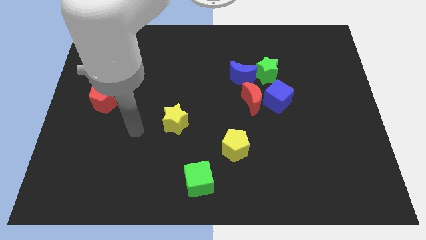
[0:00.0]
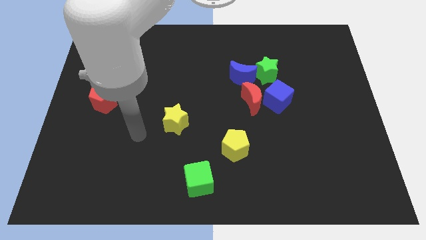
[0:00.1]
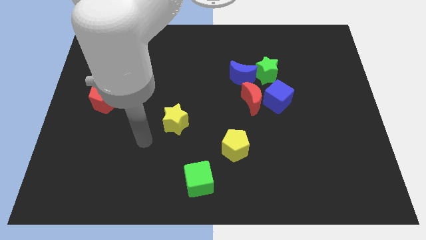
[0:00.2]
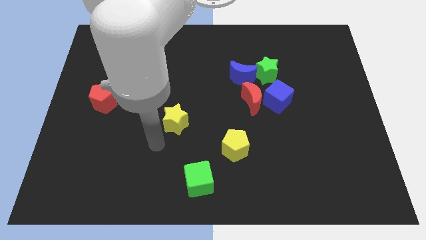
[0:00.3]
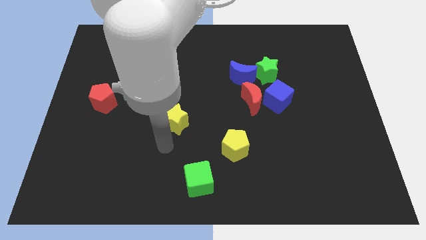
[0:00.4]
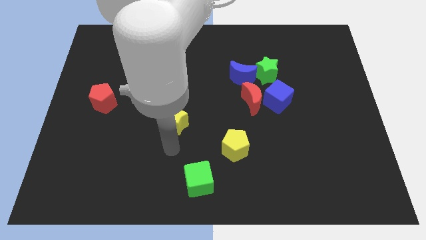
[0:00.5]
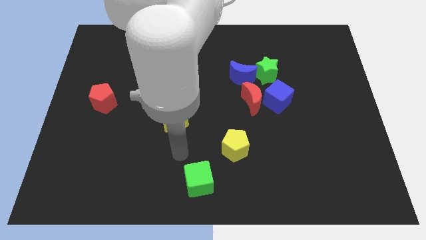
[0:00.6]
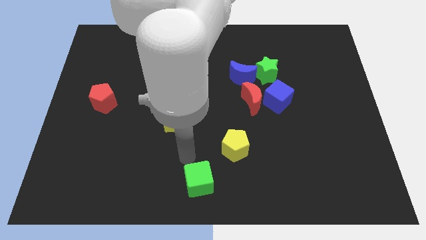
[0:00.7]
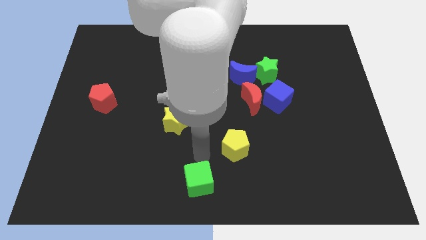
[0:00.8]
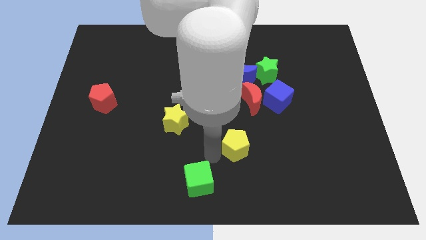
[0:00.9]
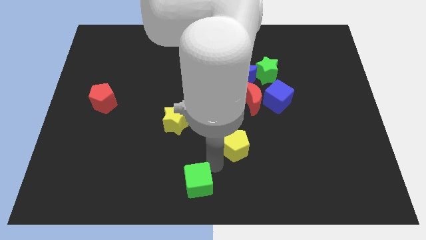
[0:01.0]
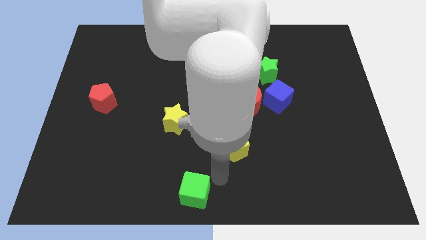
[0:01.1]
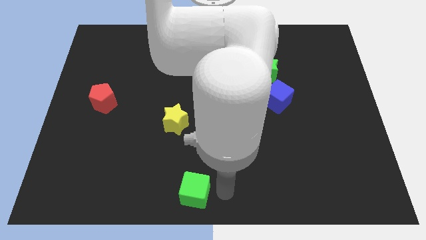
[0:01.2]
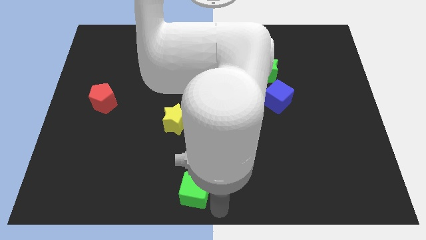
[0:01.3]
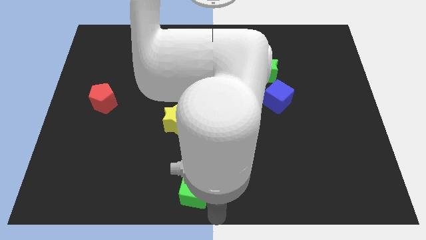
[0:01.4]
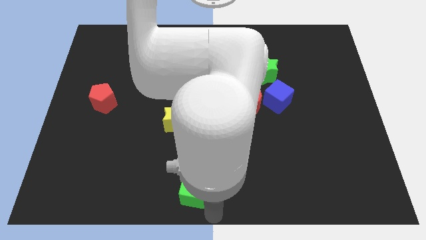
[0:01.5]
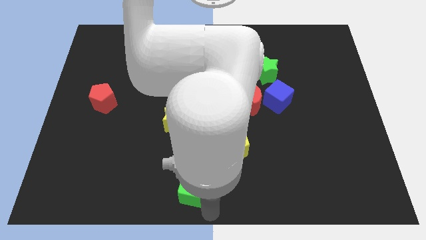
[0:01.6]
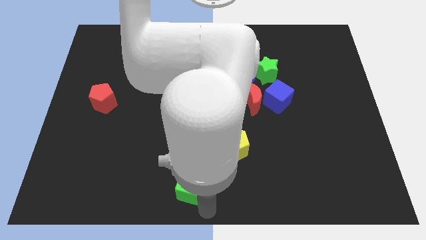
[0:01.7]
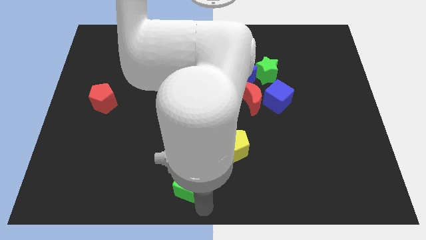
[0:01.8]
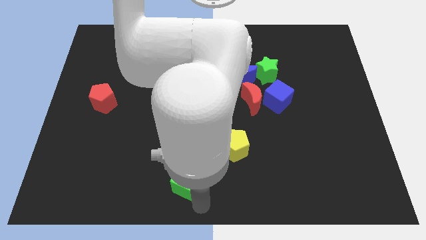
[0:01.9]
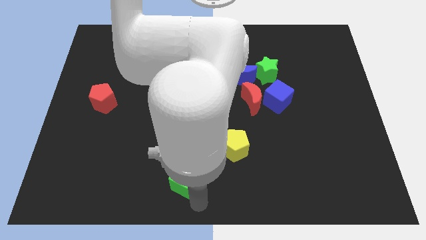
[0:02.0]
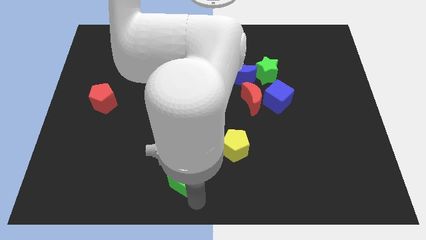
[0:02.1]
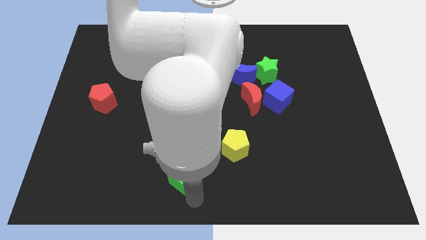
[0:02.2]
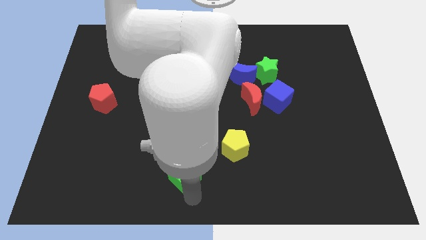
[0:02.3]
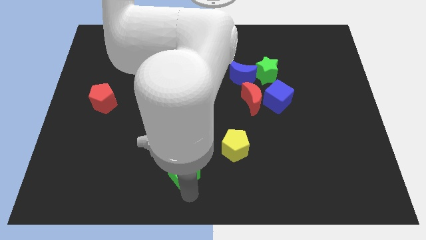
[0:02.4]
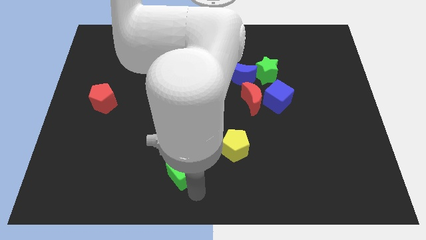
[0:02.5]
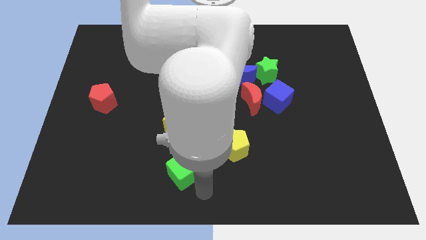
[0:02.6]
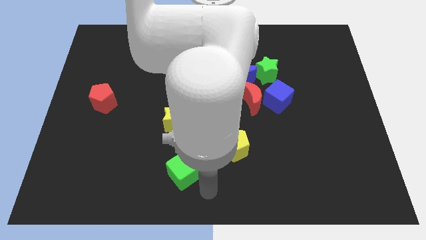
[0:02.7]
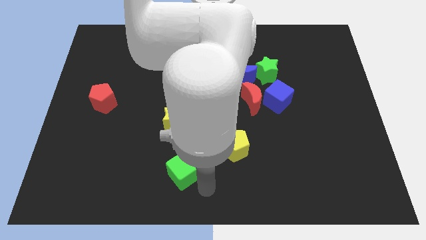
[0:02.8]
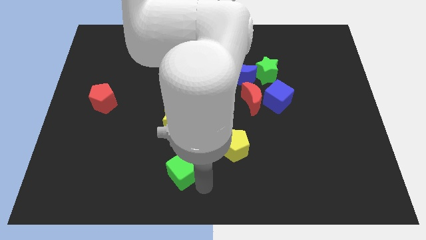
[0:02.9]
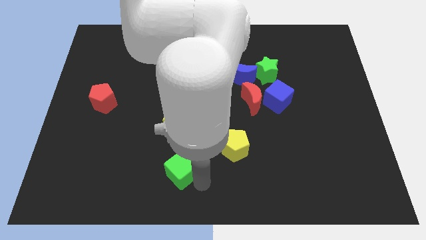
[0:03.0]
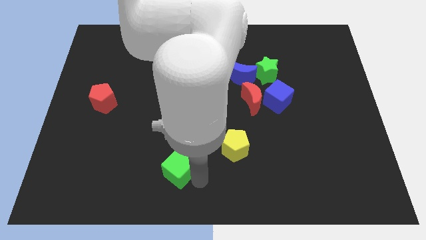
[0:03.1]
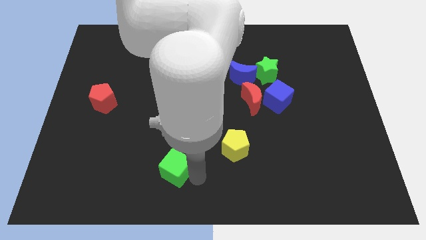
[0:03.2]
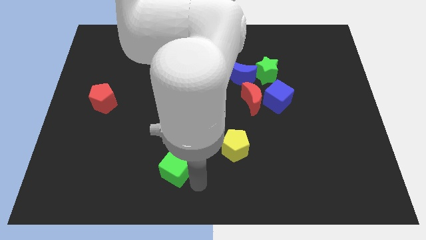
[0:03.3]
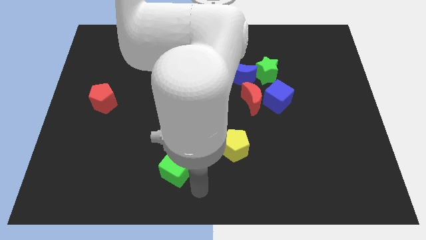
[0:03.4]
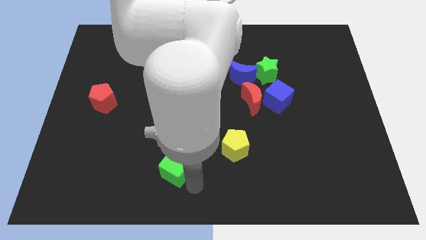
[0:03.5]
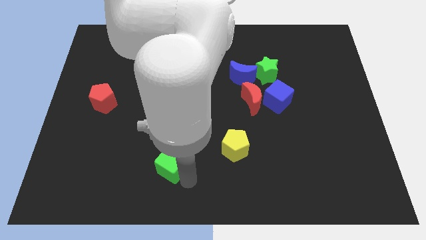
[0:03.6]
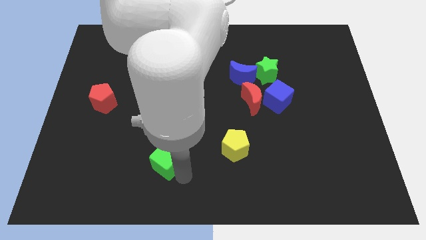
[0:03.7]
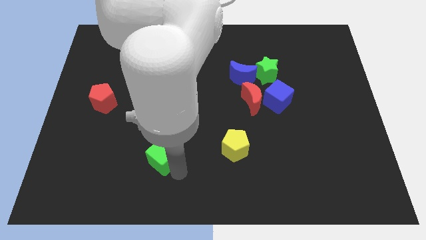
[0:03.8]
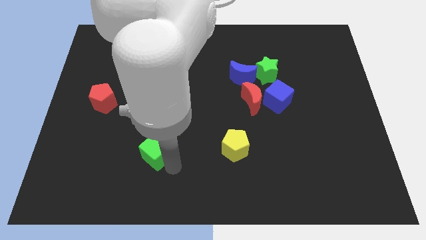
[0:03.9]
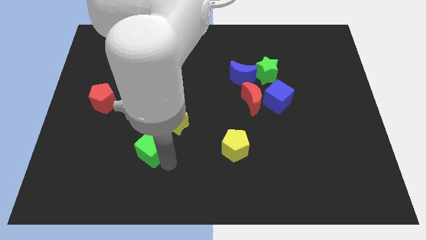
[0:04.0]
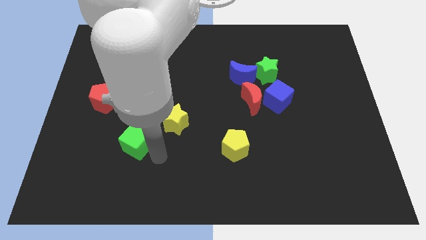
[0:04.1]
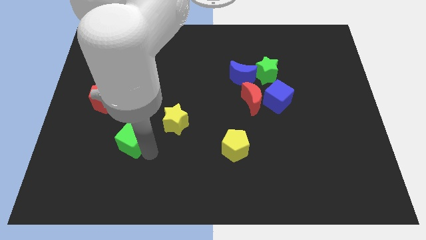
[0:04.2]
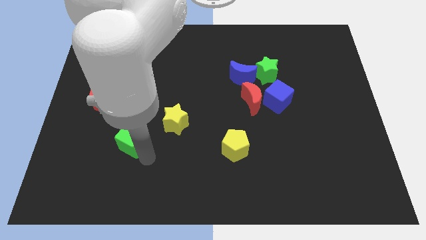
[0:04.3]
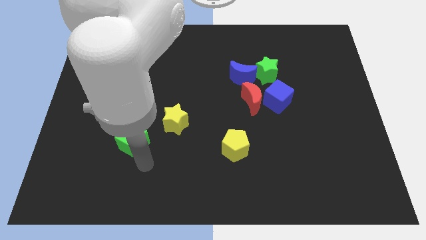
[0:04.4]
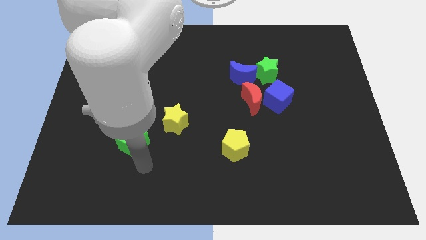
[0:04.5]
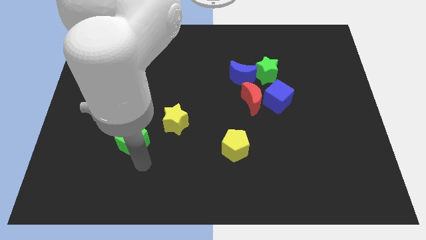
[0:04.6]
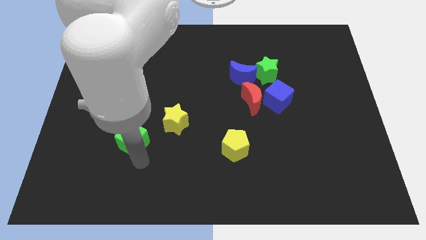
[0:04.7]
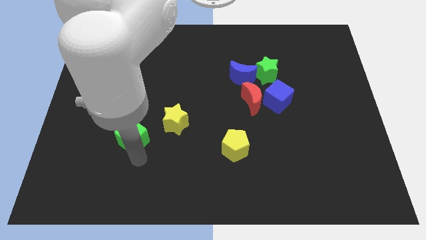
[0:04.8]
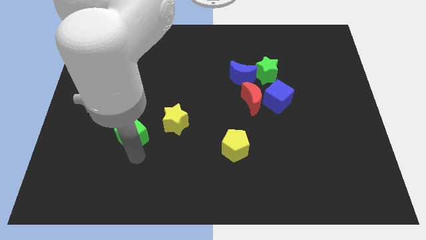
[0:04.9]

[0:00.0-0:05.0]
slide the green cube diagonally down and to the right of the red pentagon

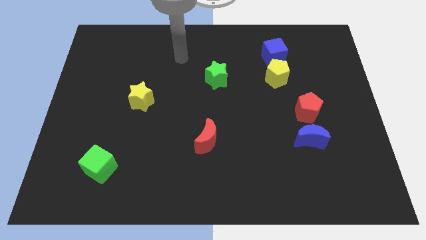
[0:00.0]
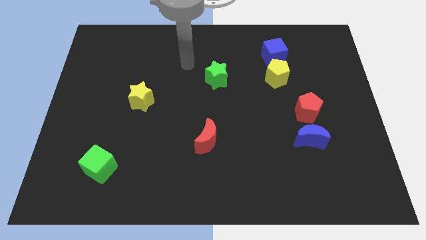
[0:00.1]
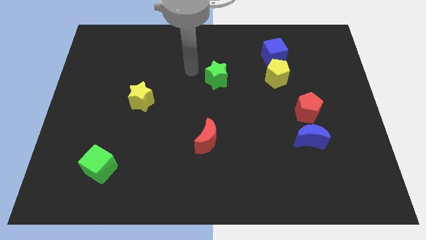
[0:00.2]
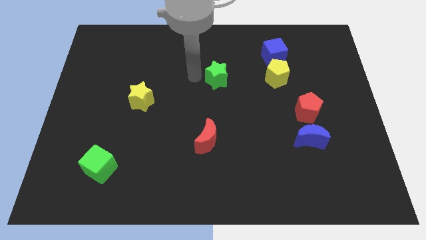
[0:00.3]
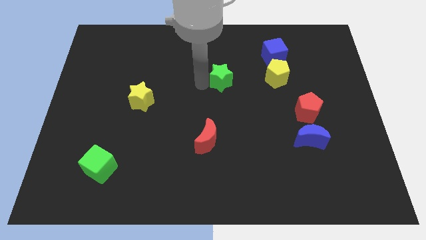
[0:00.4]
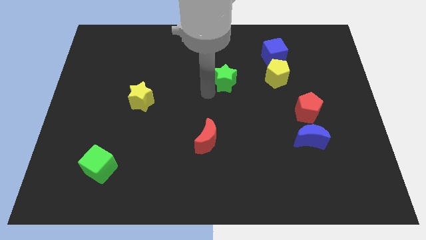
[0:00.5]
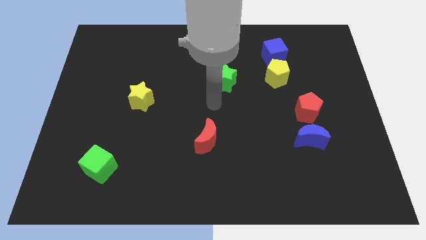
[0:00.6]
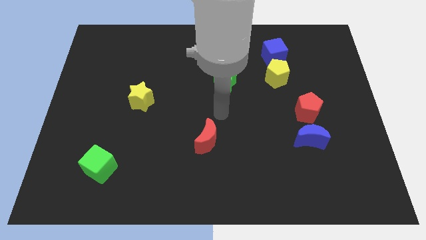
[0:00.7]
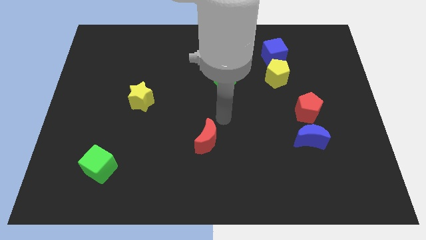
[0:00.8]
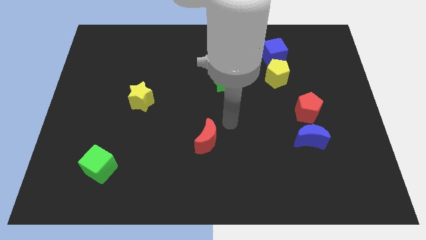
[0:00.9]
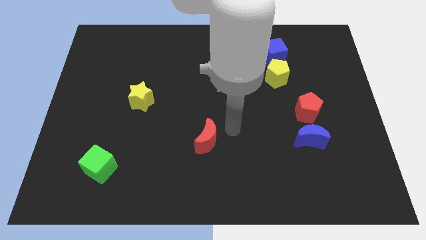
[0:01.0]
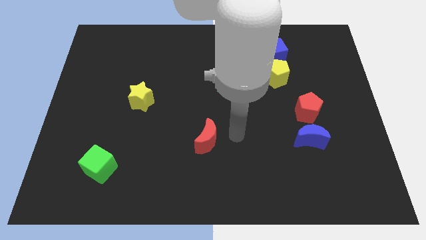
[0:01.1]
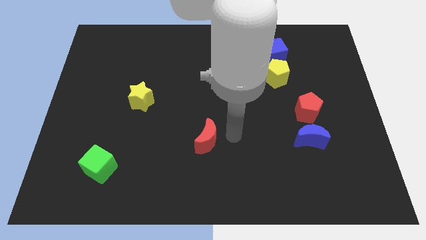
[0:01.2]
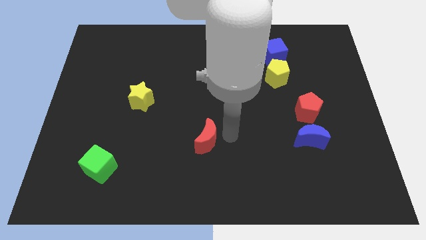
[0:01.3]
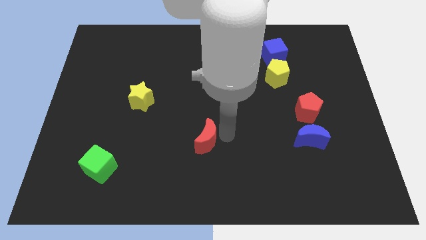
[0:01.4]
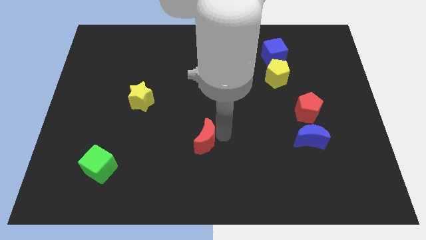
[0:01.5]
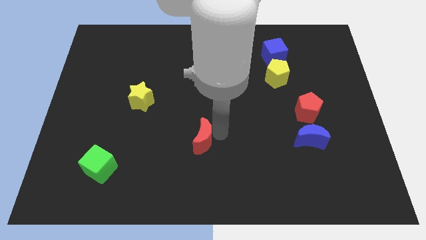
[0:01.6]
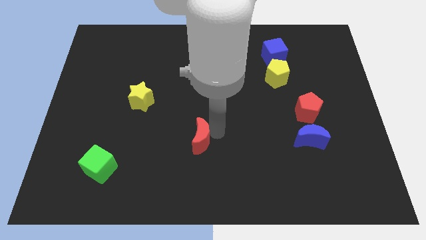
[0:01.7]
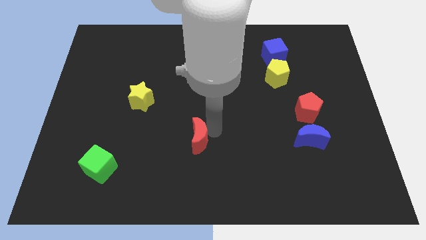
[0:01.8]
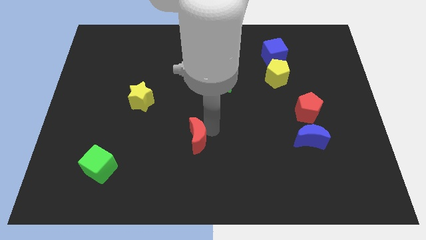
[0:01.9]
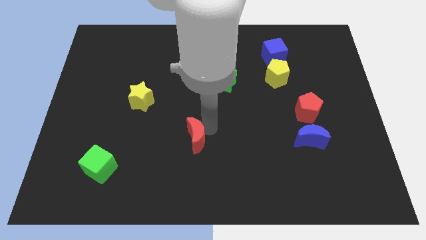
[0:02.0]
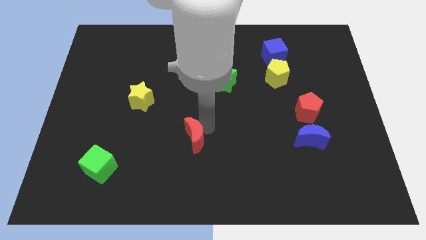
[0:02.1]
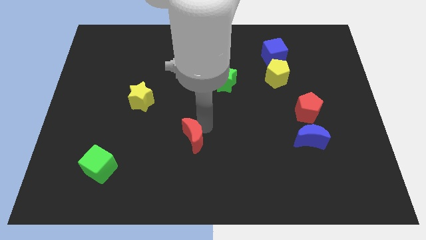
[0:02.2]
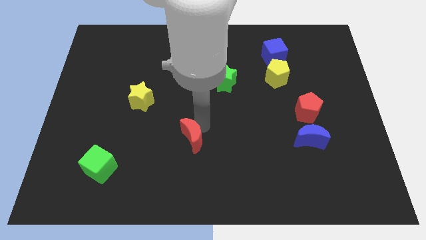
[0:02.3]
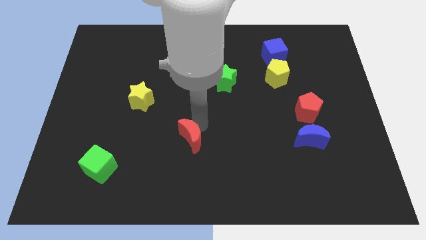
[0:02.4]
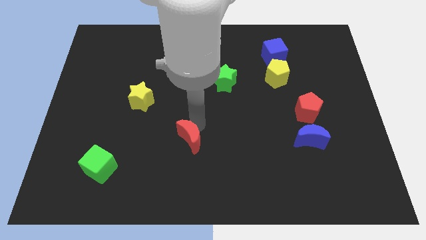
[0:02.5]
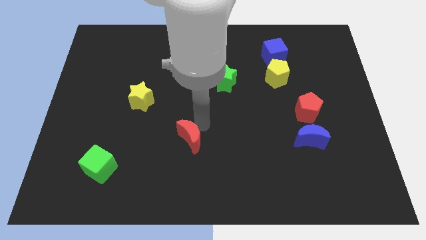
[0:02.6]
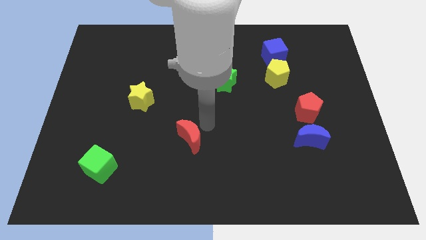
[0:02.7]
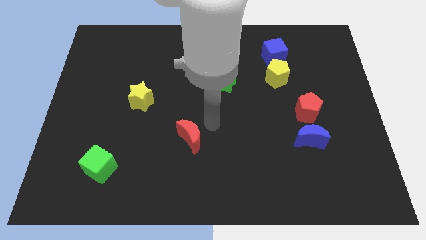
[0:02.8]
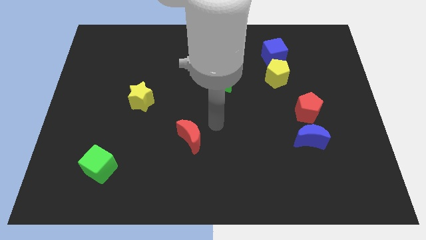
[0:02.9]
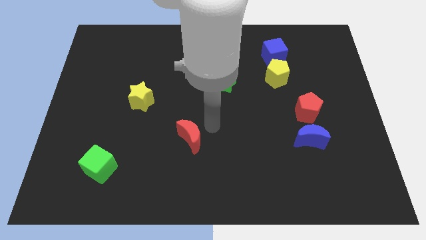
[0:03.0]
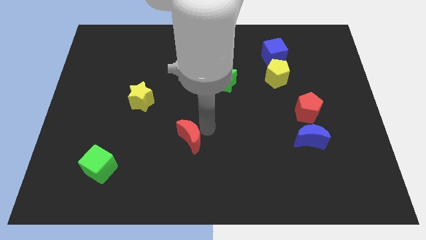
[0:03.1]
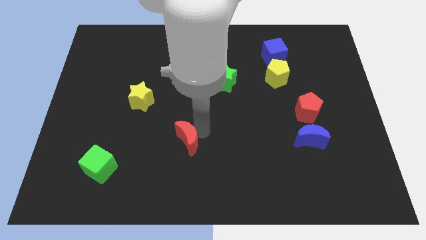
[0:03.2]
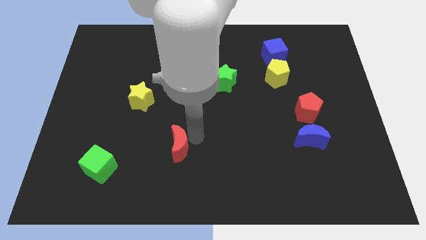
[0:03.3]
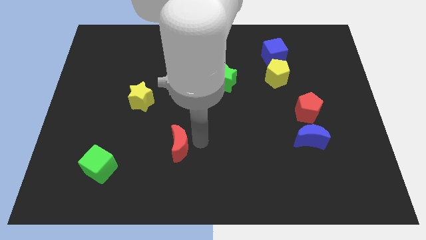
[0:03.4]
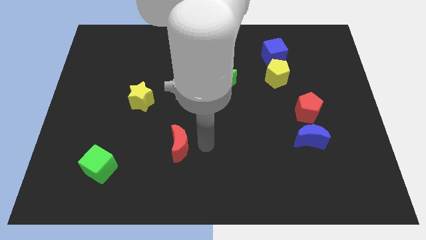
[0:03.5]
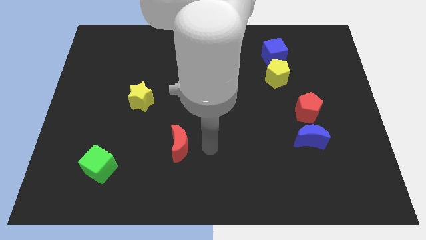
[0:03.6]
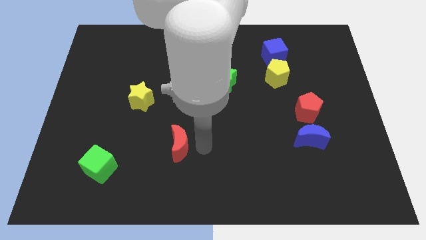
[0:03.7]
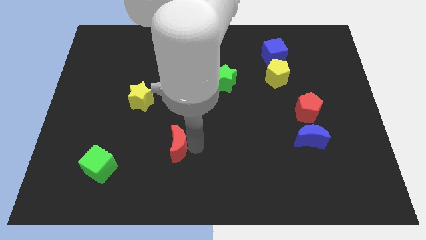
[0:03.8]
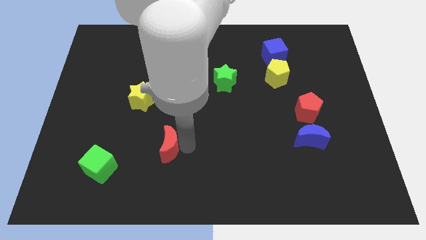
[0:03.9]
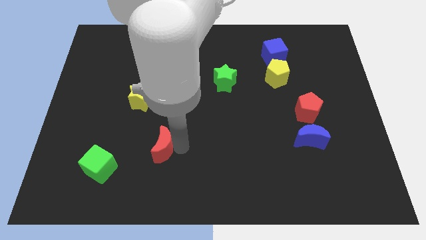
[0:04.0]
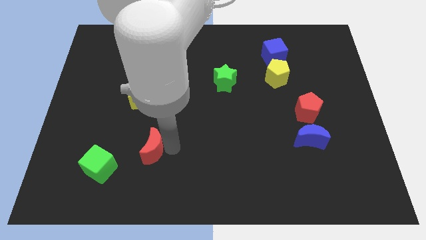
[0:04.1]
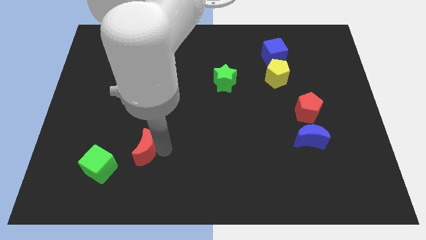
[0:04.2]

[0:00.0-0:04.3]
move the red moon diagonally up and to the right of the green cube
